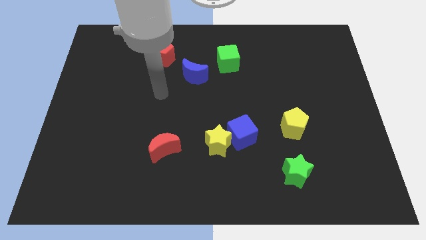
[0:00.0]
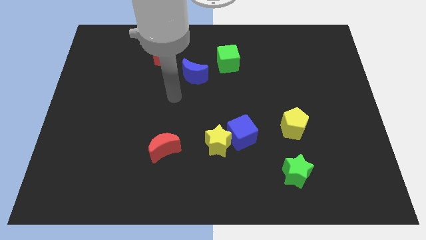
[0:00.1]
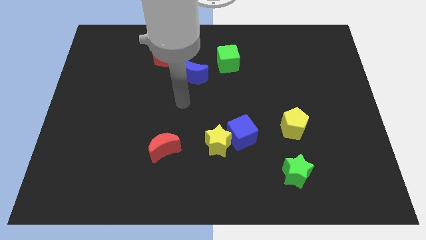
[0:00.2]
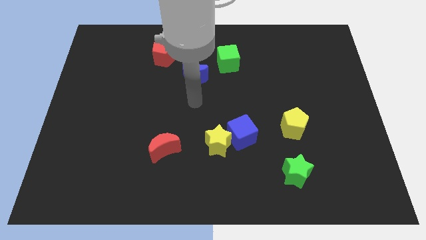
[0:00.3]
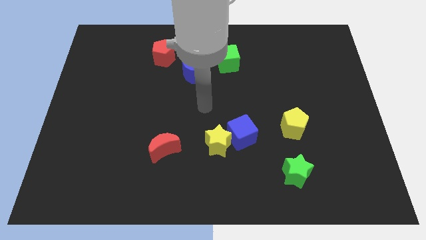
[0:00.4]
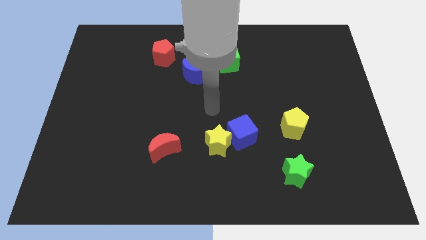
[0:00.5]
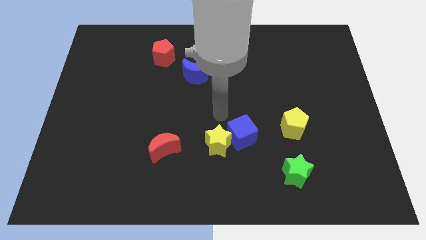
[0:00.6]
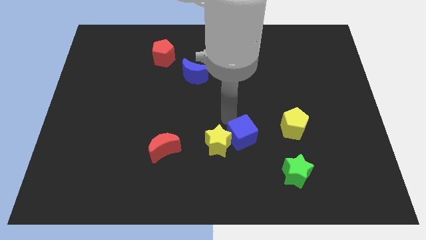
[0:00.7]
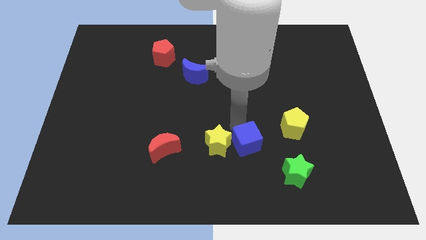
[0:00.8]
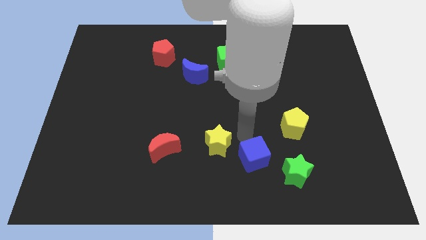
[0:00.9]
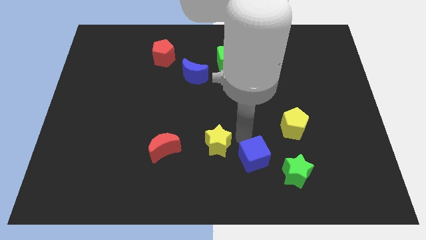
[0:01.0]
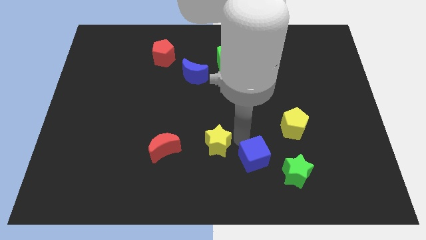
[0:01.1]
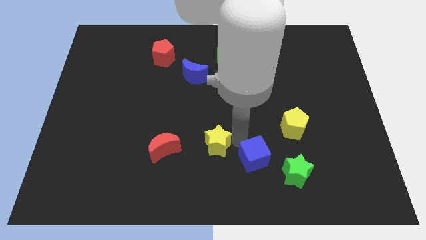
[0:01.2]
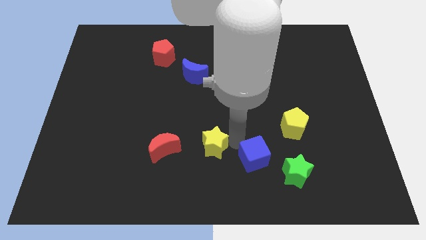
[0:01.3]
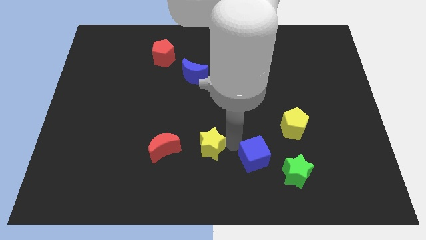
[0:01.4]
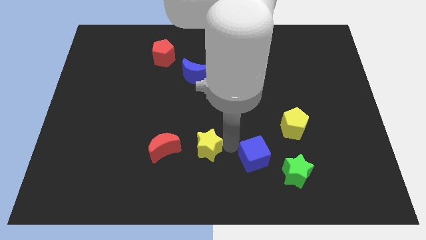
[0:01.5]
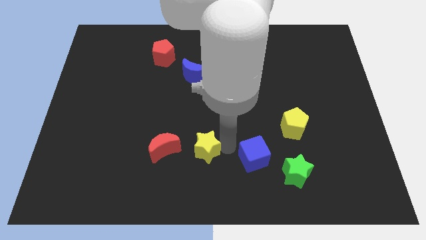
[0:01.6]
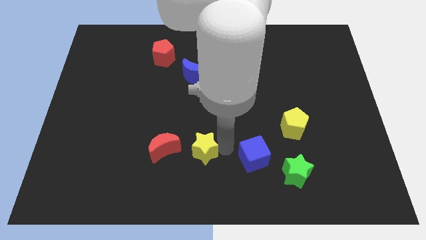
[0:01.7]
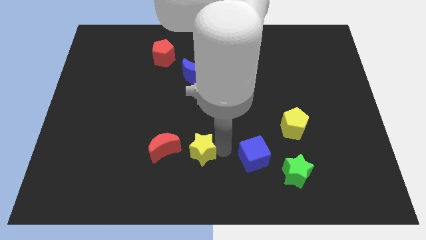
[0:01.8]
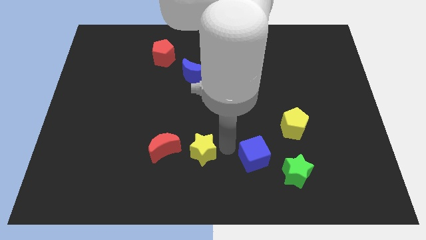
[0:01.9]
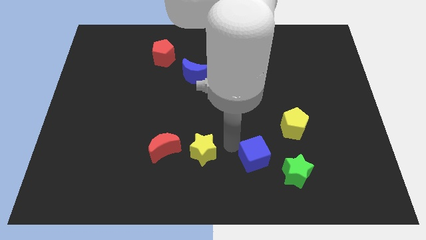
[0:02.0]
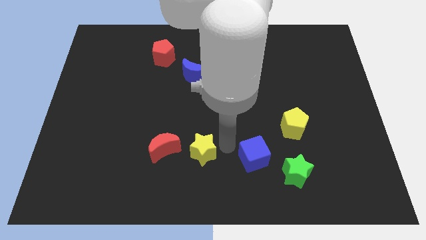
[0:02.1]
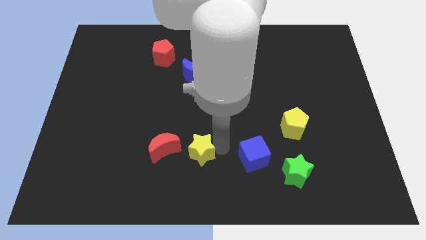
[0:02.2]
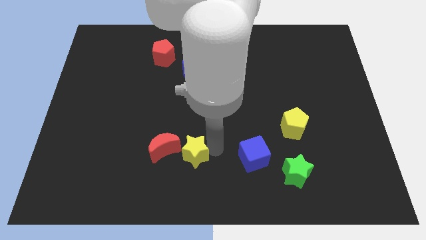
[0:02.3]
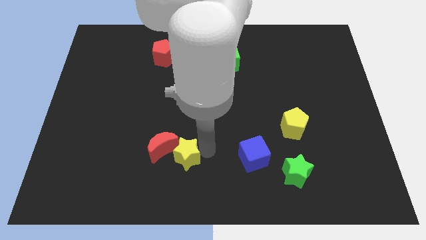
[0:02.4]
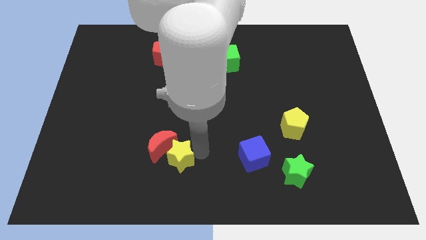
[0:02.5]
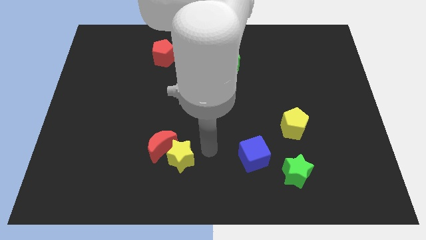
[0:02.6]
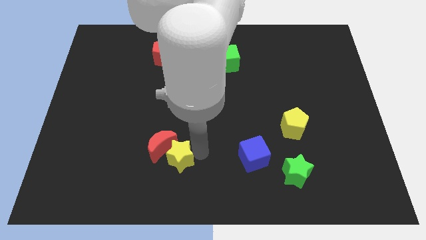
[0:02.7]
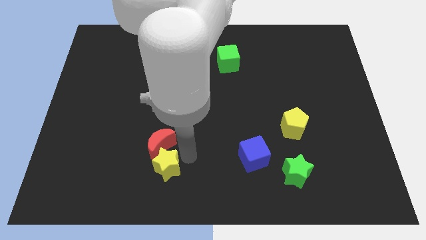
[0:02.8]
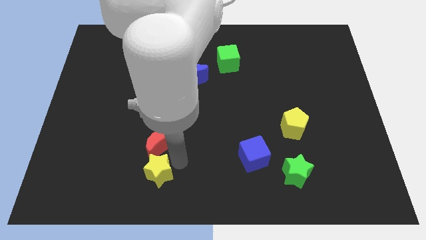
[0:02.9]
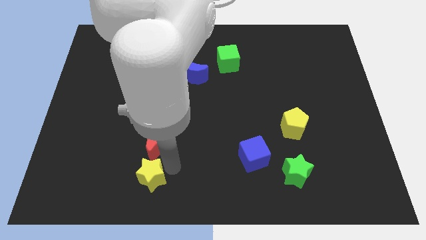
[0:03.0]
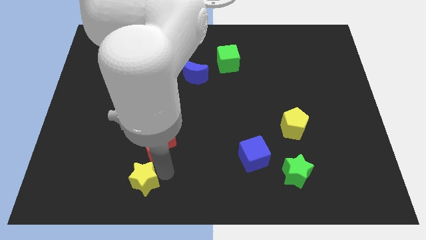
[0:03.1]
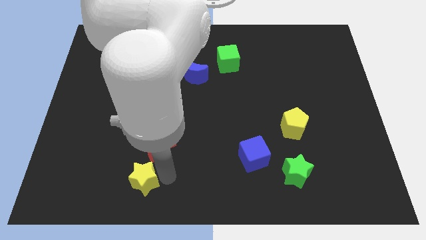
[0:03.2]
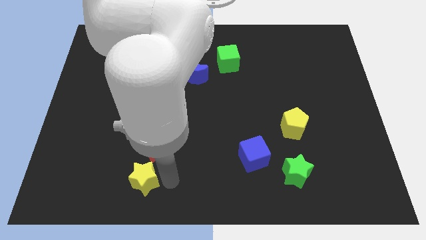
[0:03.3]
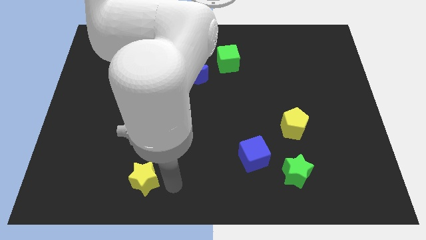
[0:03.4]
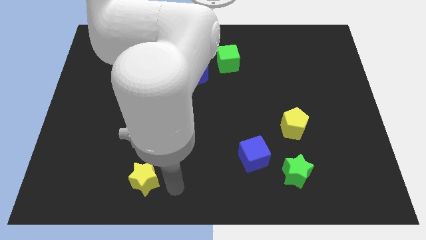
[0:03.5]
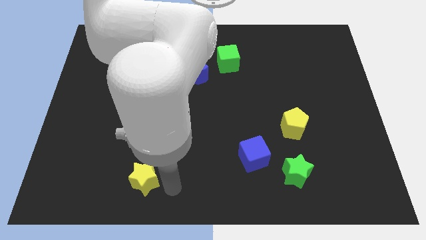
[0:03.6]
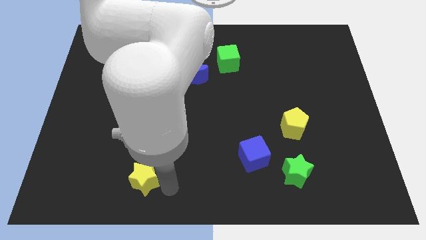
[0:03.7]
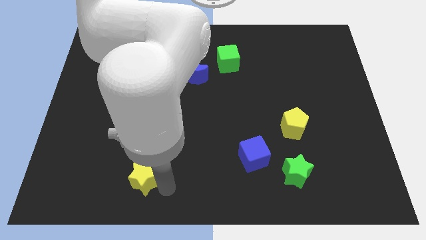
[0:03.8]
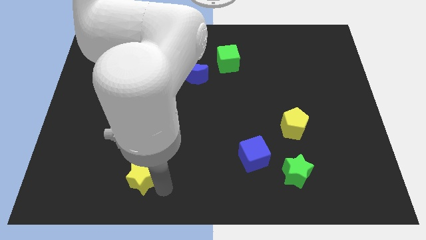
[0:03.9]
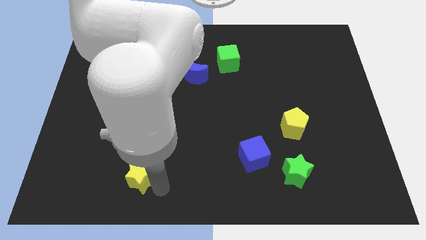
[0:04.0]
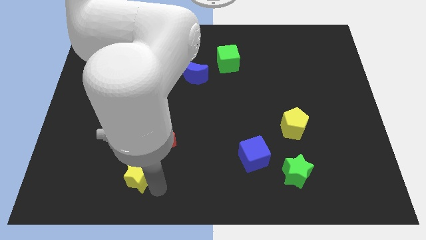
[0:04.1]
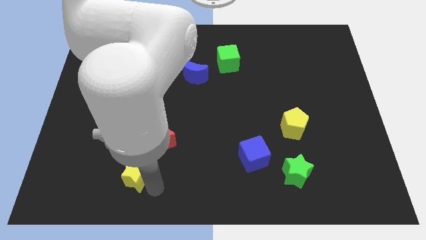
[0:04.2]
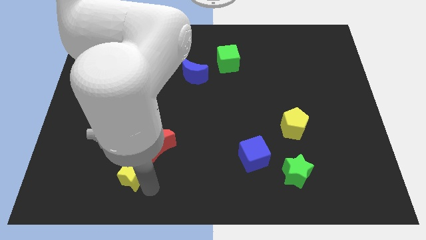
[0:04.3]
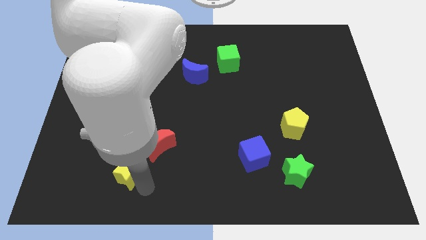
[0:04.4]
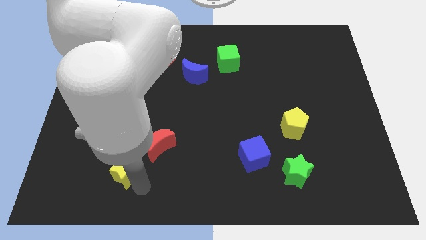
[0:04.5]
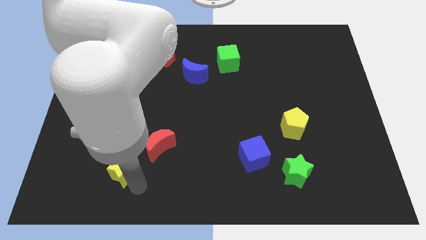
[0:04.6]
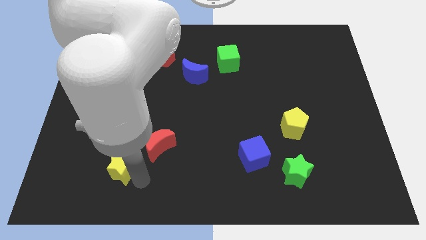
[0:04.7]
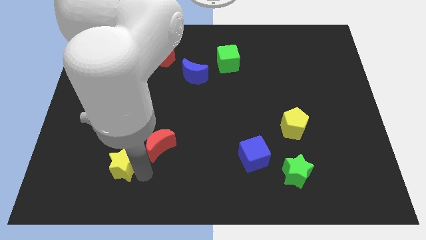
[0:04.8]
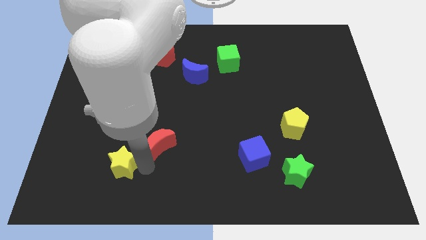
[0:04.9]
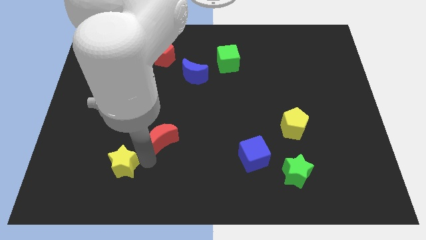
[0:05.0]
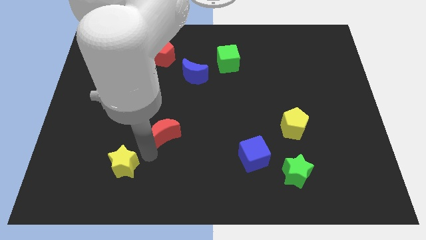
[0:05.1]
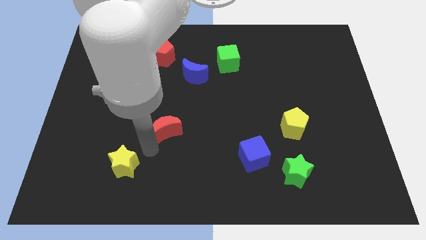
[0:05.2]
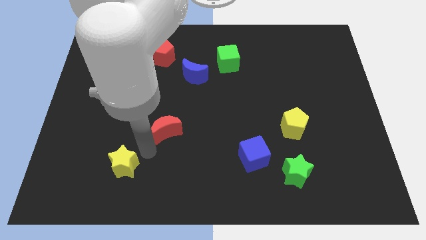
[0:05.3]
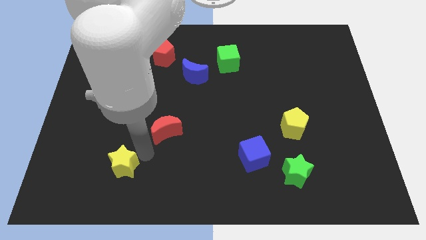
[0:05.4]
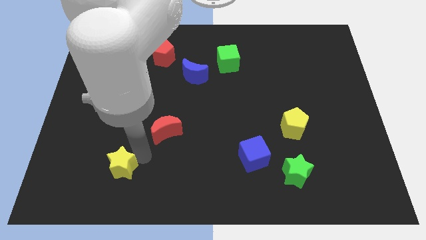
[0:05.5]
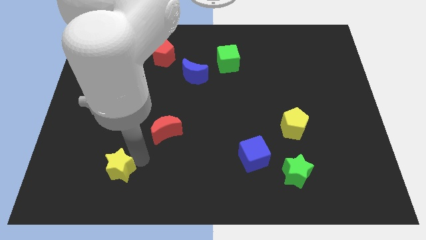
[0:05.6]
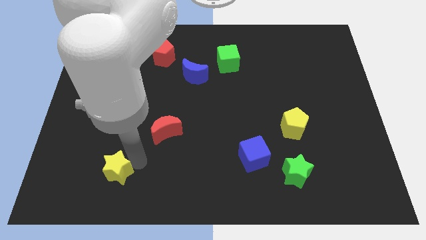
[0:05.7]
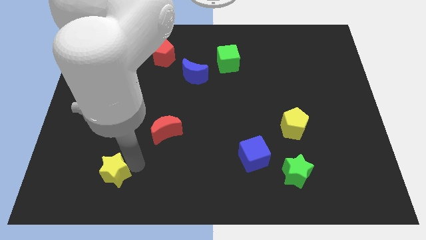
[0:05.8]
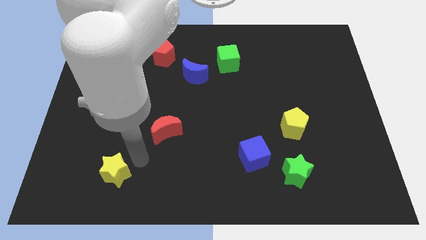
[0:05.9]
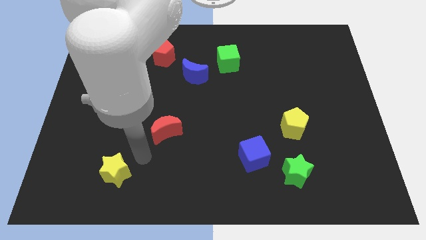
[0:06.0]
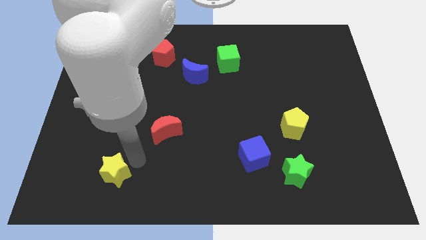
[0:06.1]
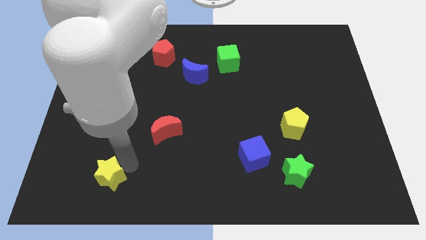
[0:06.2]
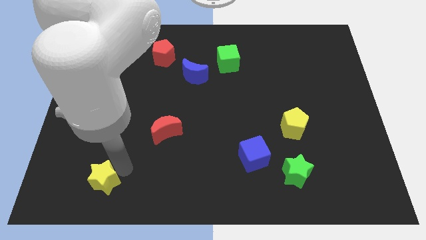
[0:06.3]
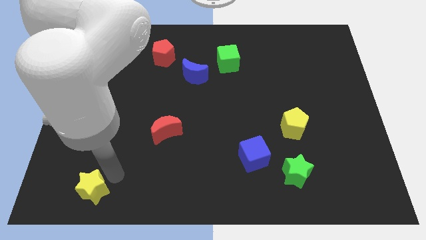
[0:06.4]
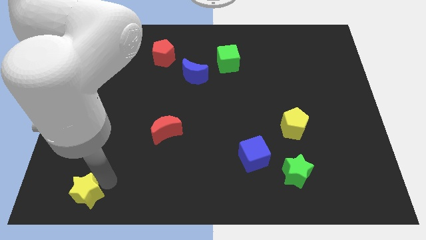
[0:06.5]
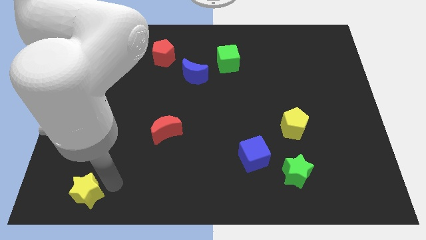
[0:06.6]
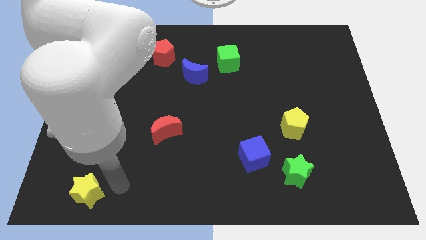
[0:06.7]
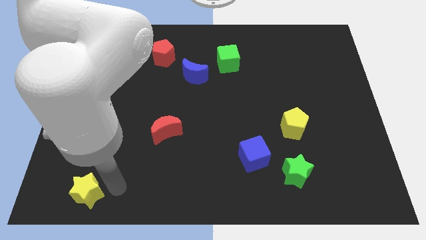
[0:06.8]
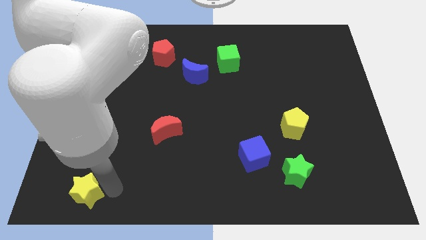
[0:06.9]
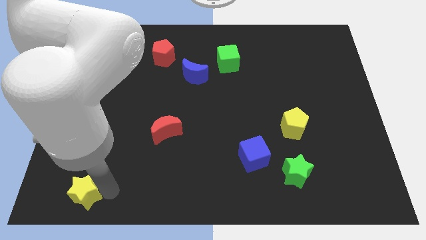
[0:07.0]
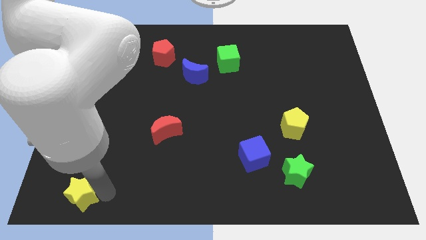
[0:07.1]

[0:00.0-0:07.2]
slide the yellow star to the bottom left
